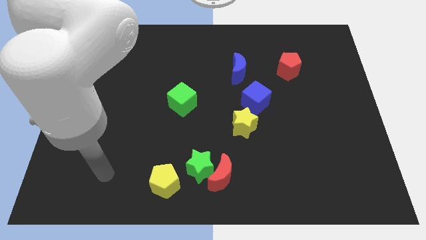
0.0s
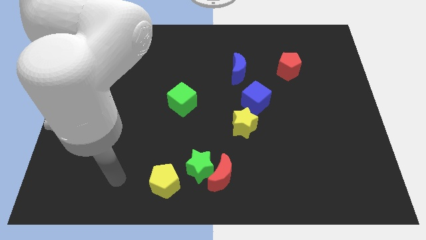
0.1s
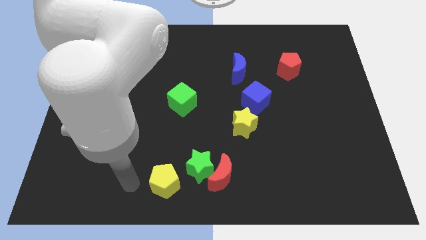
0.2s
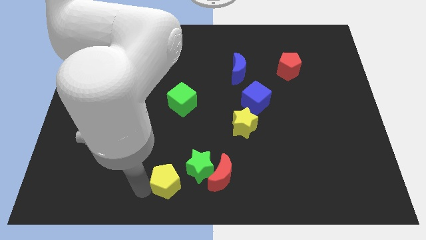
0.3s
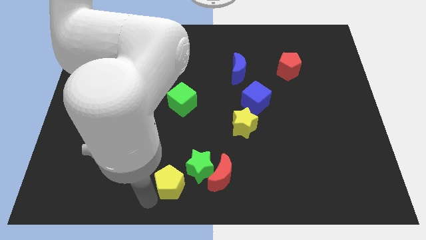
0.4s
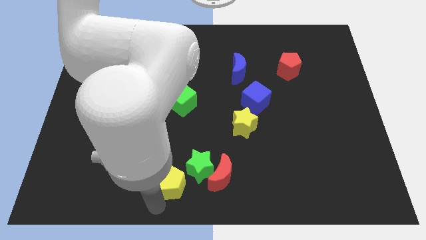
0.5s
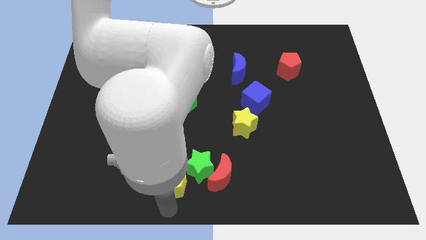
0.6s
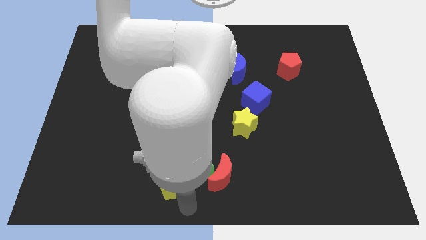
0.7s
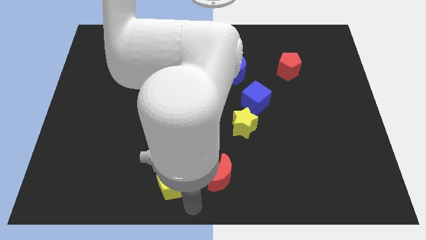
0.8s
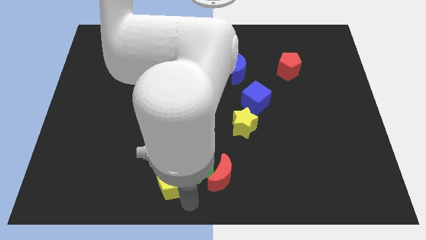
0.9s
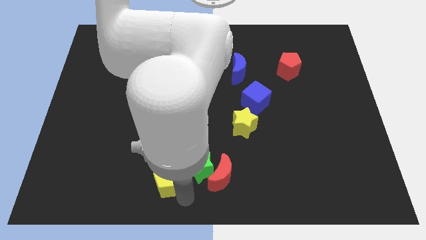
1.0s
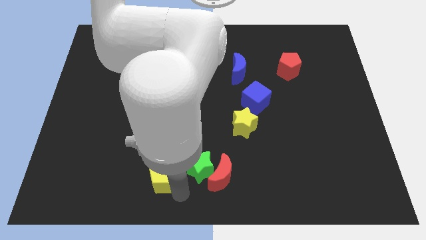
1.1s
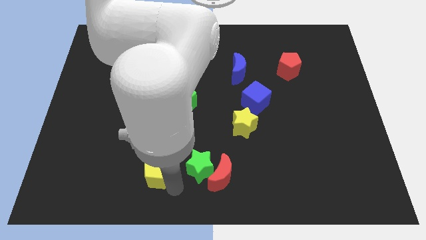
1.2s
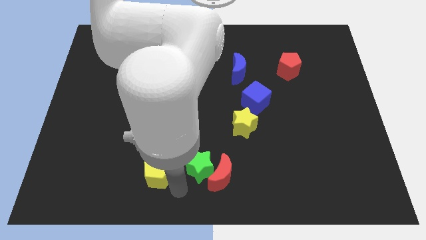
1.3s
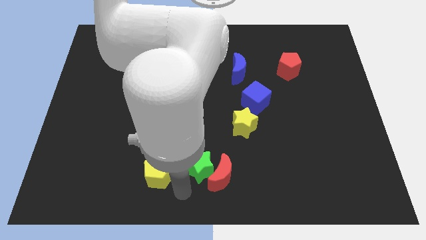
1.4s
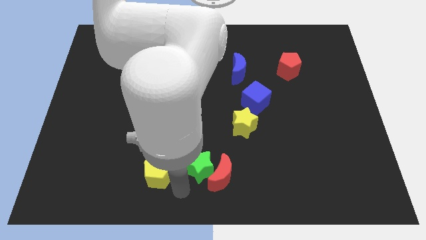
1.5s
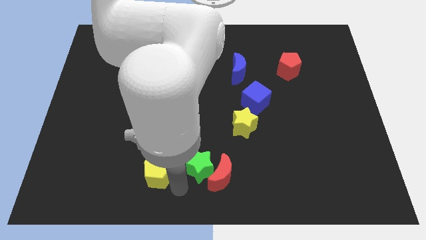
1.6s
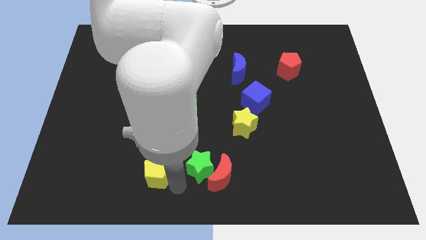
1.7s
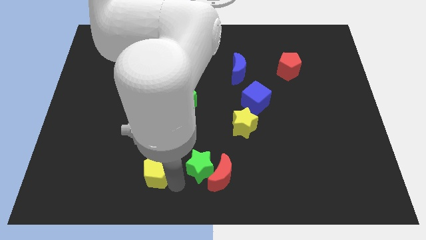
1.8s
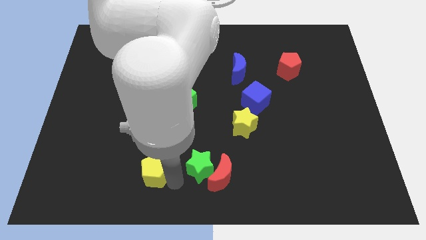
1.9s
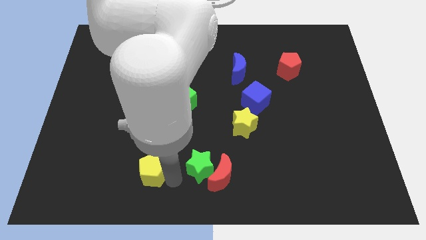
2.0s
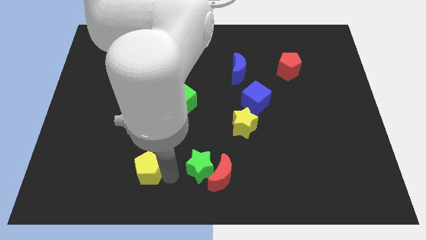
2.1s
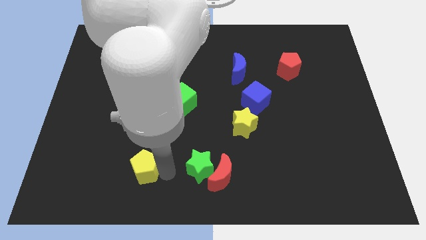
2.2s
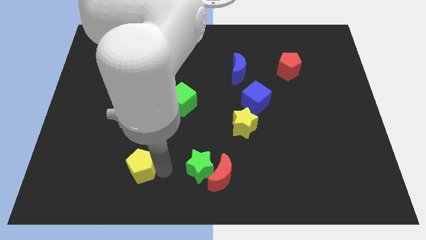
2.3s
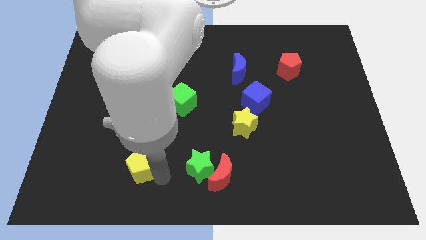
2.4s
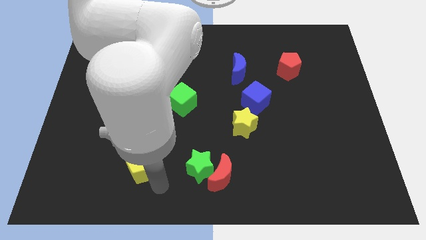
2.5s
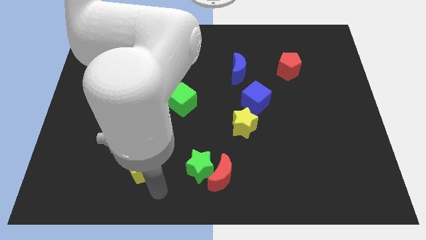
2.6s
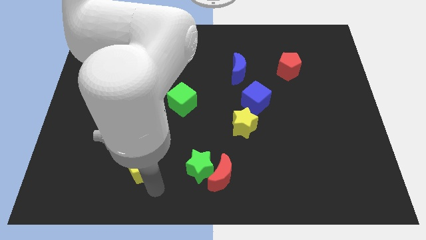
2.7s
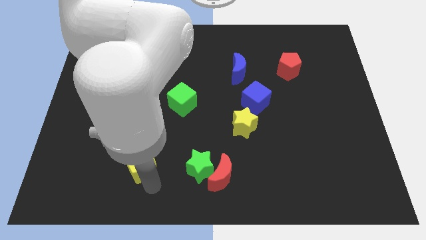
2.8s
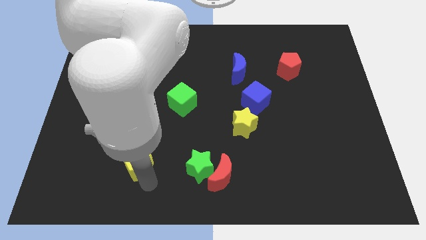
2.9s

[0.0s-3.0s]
move the yellow pentagon diagonally up and left a little bit

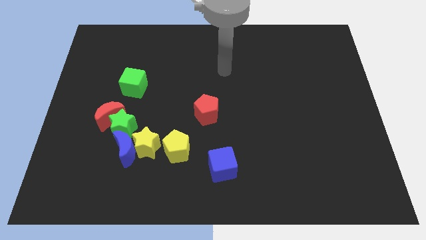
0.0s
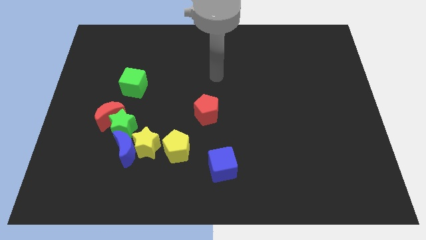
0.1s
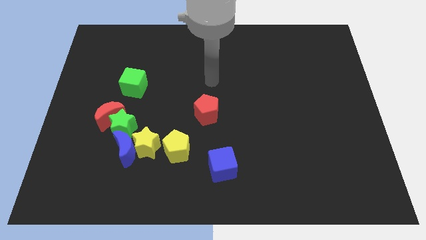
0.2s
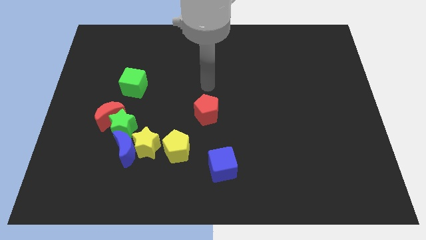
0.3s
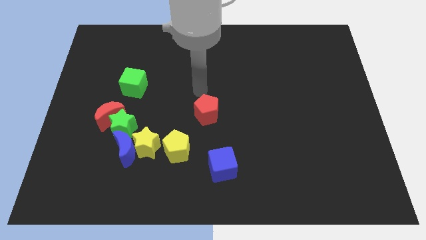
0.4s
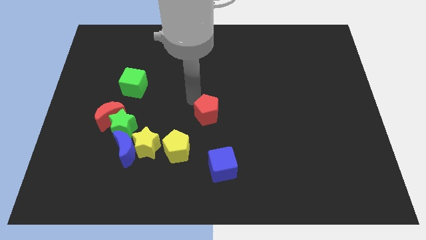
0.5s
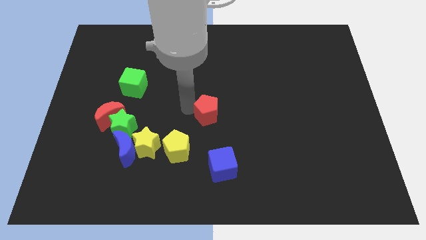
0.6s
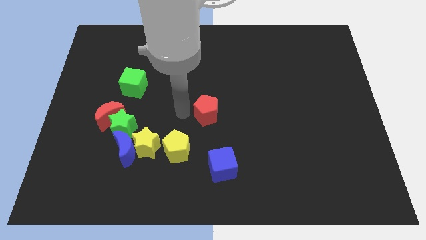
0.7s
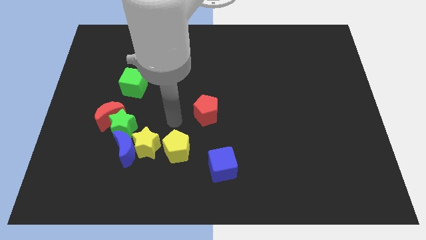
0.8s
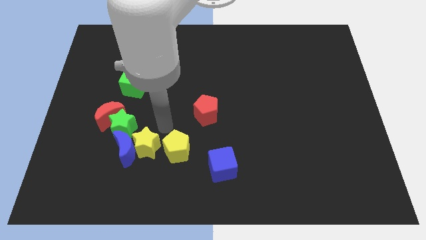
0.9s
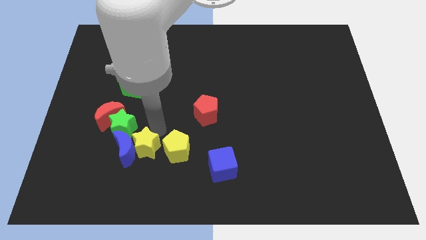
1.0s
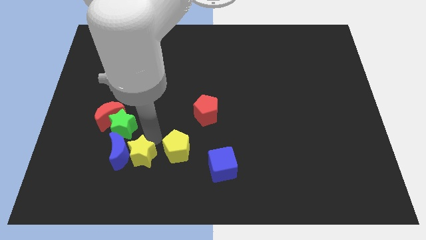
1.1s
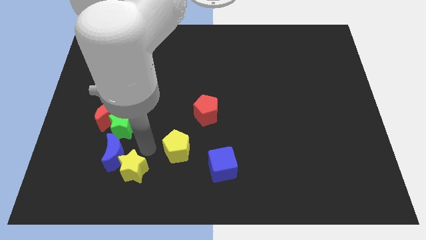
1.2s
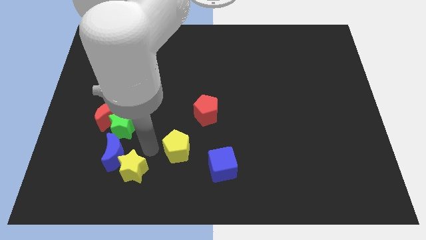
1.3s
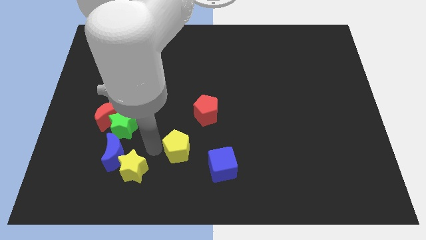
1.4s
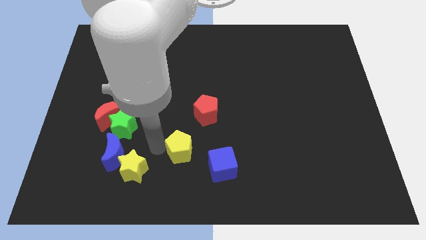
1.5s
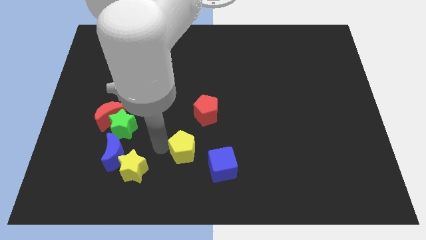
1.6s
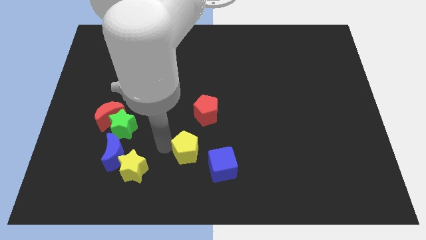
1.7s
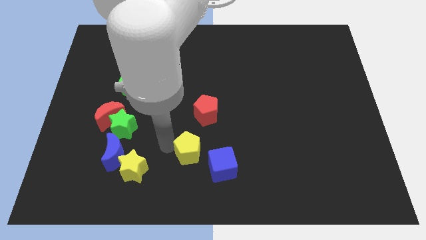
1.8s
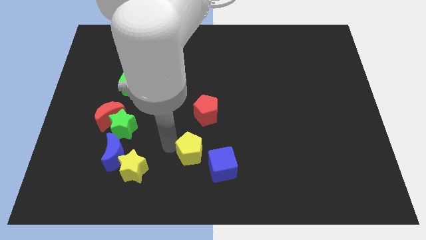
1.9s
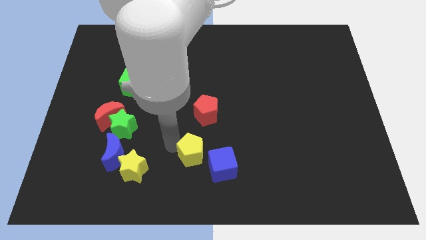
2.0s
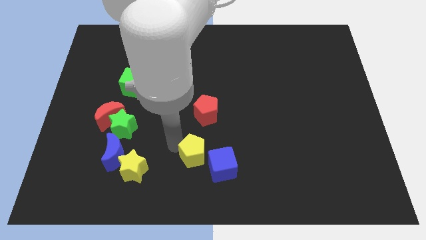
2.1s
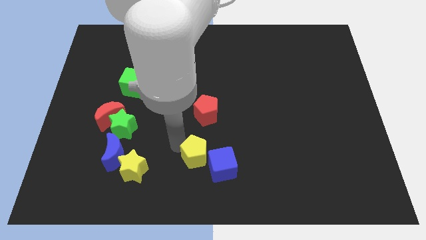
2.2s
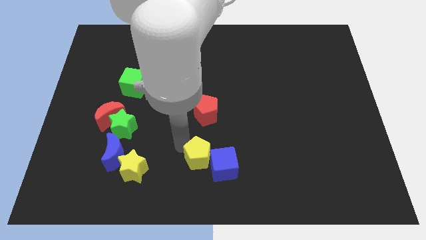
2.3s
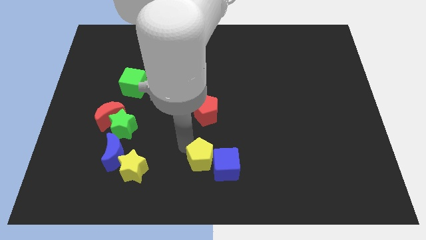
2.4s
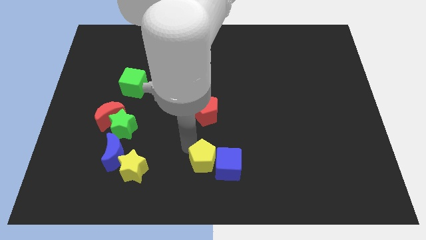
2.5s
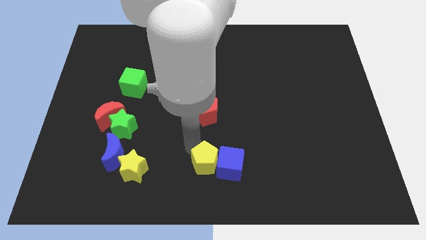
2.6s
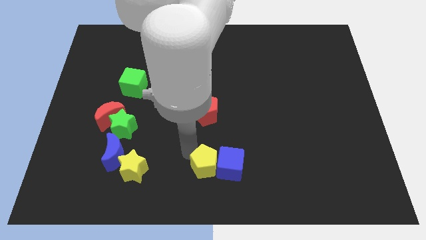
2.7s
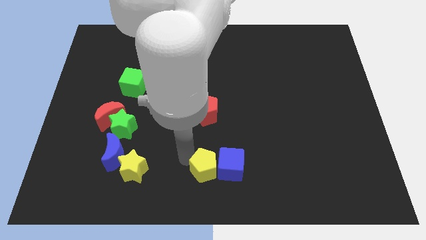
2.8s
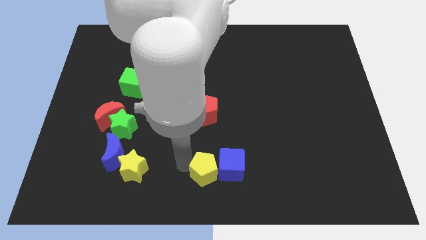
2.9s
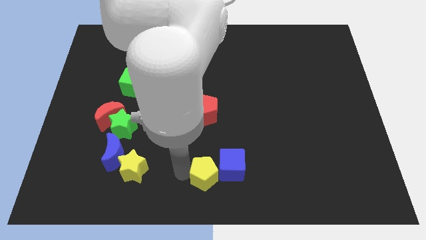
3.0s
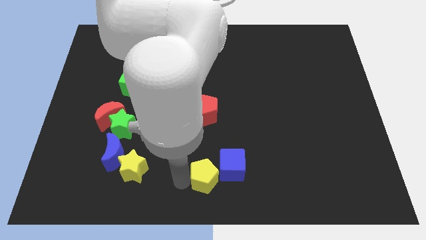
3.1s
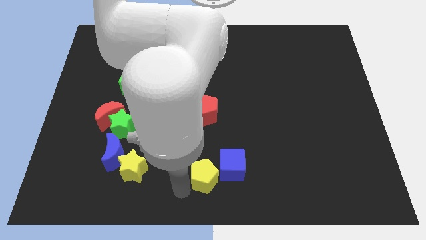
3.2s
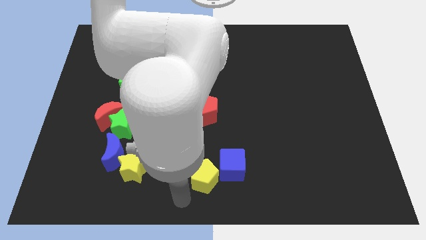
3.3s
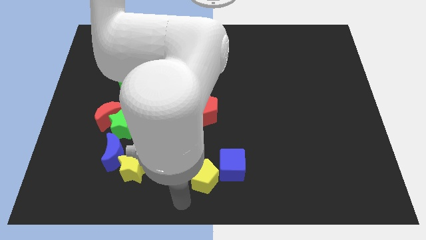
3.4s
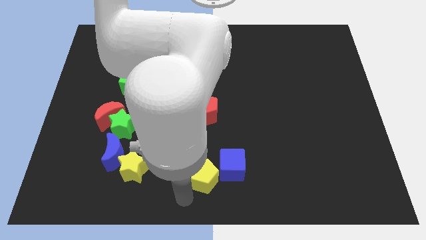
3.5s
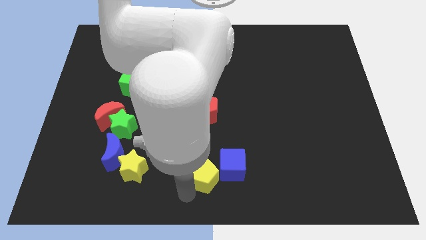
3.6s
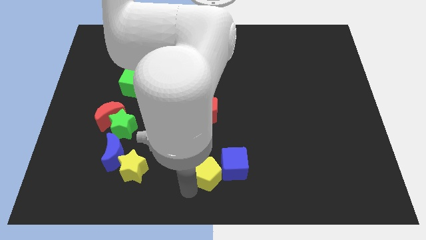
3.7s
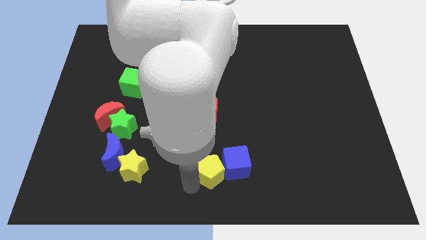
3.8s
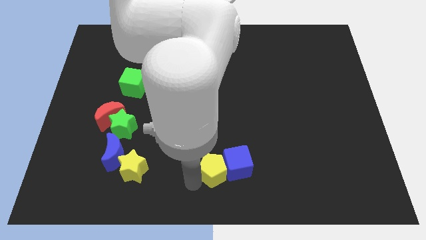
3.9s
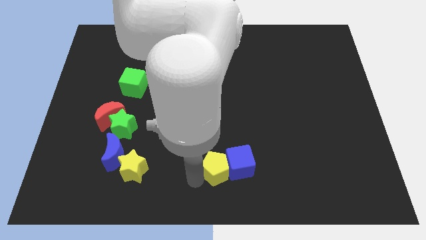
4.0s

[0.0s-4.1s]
slightly move the yellow pentagon right

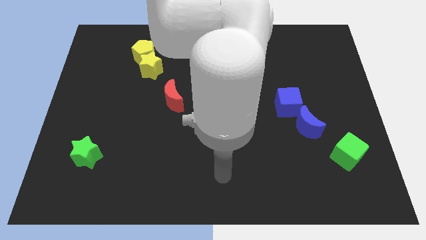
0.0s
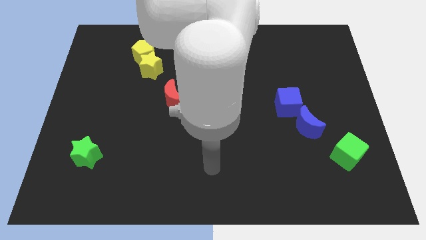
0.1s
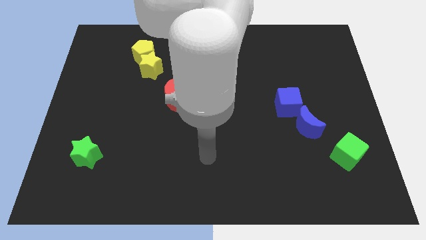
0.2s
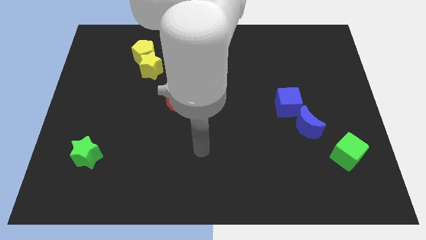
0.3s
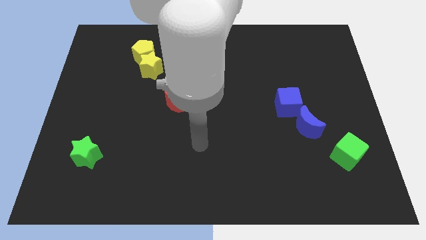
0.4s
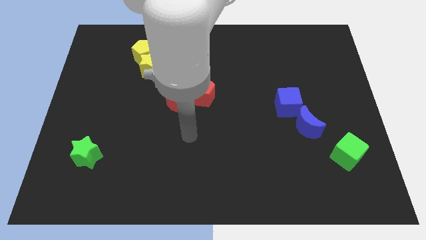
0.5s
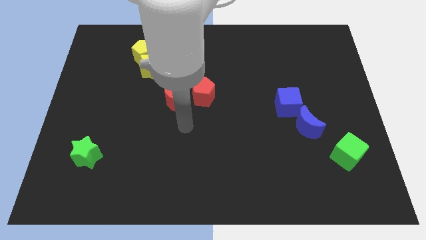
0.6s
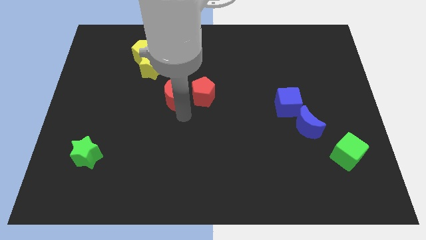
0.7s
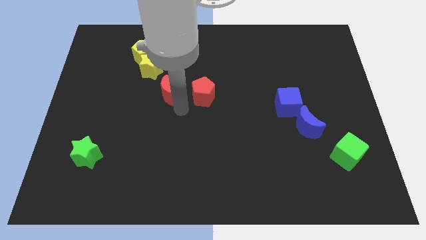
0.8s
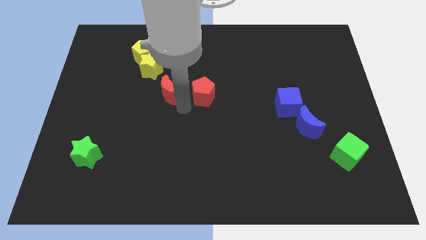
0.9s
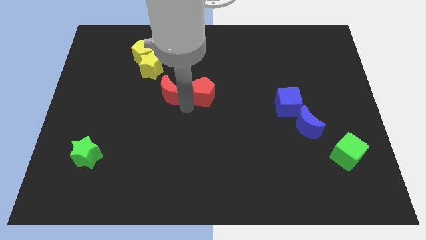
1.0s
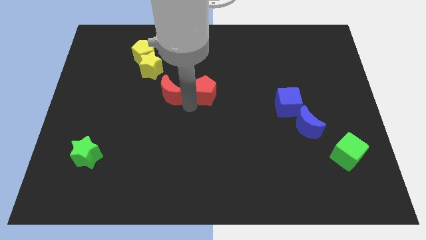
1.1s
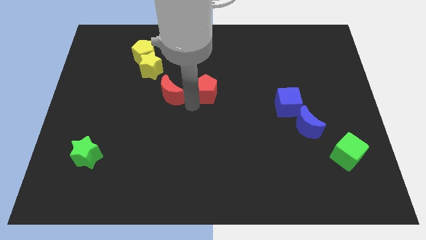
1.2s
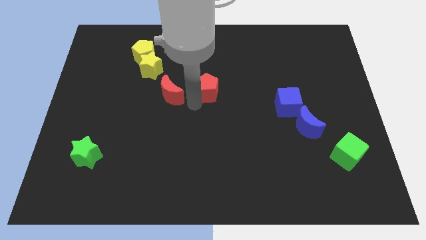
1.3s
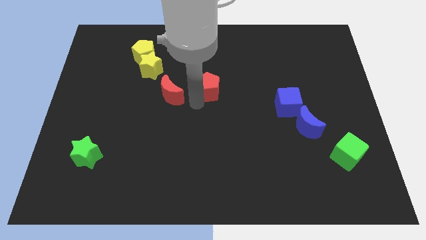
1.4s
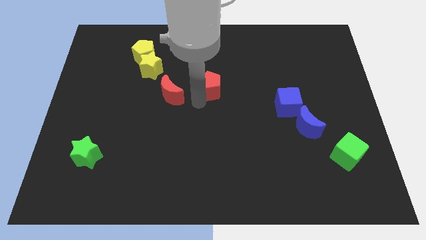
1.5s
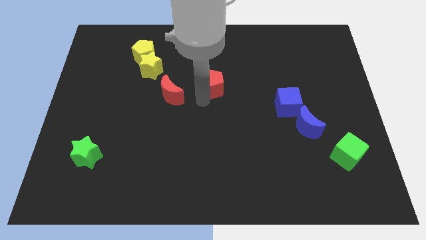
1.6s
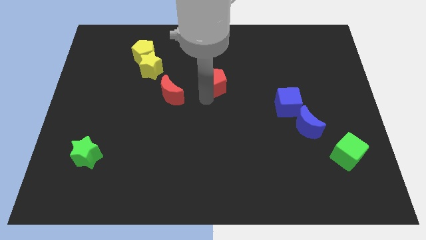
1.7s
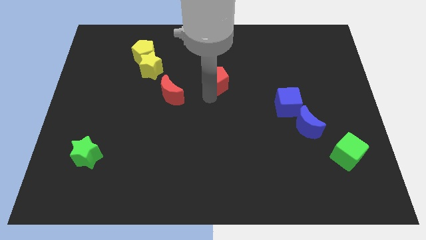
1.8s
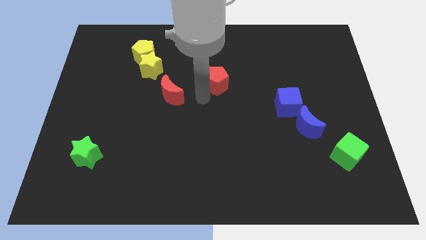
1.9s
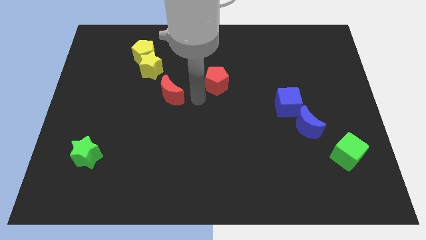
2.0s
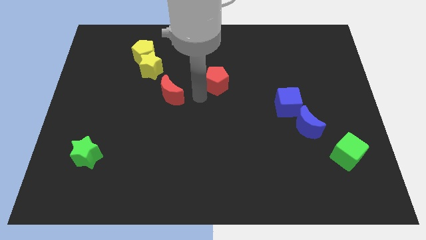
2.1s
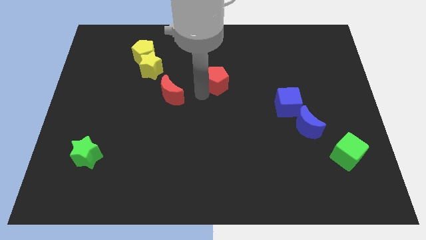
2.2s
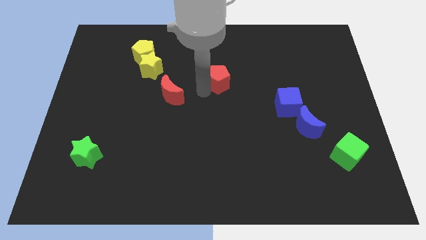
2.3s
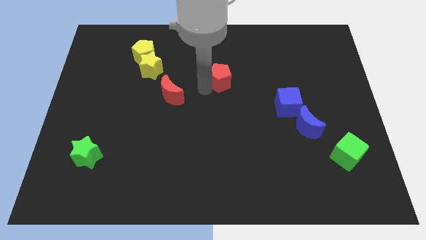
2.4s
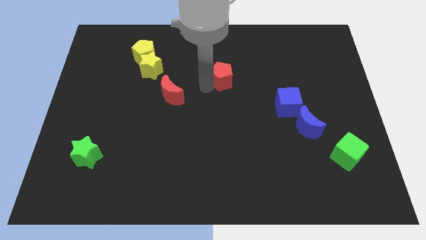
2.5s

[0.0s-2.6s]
slide the red pentagon upwards and to the right diagonally somewhat
